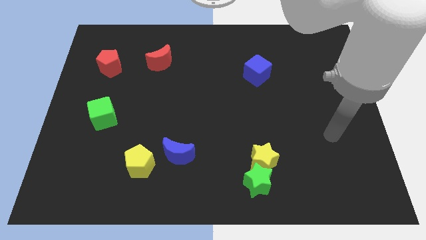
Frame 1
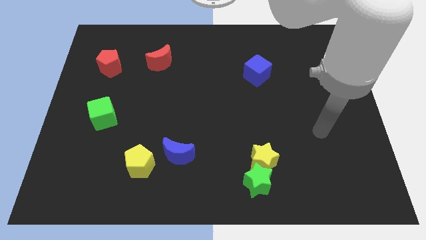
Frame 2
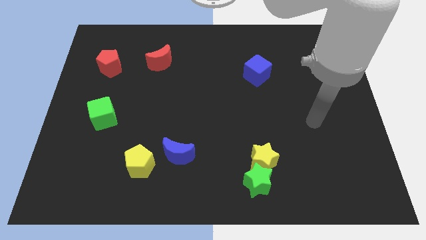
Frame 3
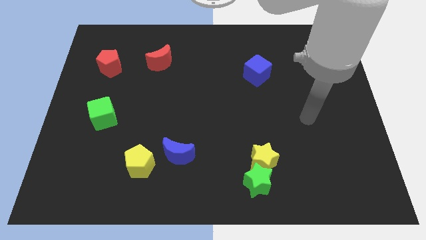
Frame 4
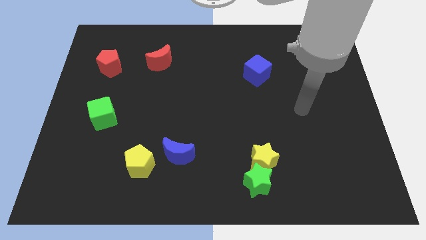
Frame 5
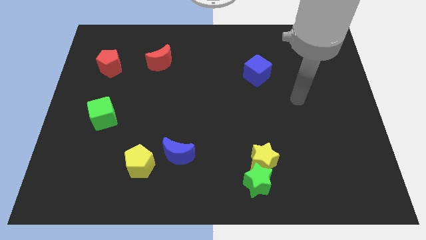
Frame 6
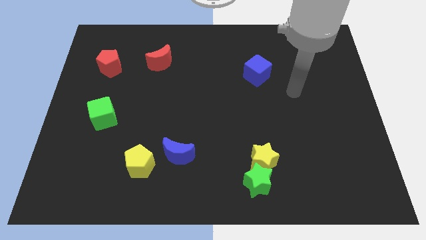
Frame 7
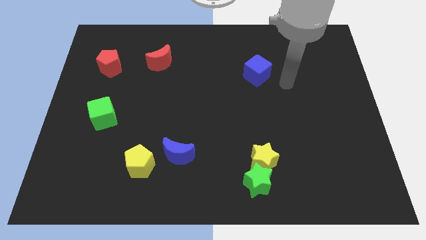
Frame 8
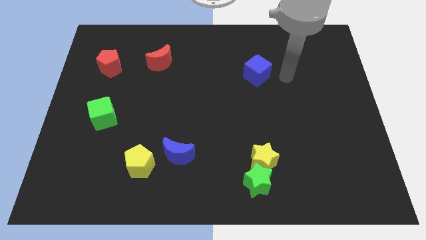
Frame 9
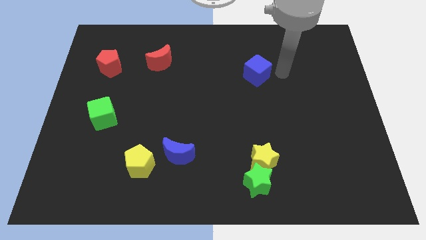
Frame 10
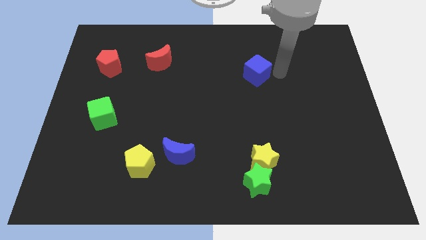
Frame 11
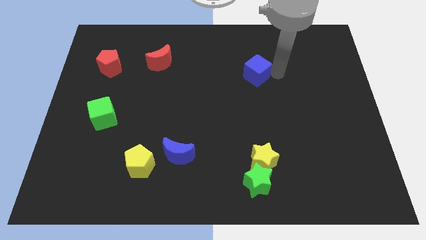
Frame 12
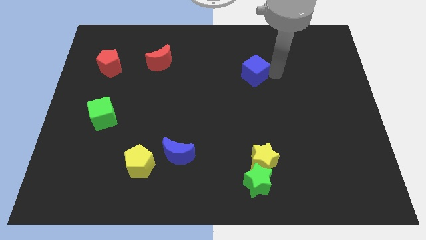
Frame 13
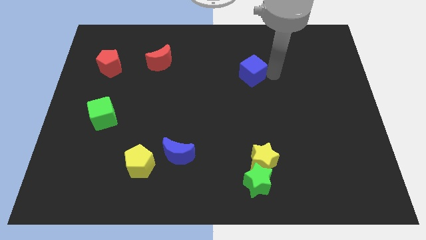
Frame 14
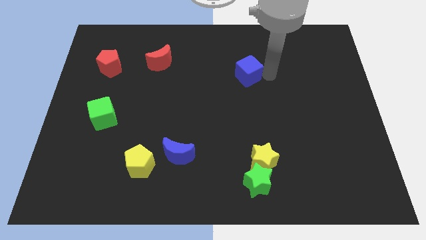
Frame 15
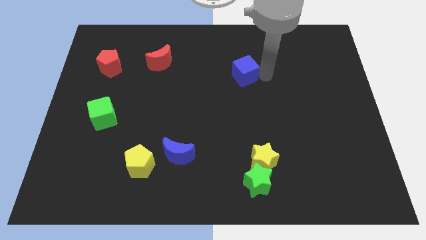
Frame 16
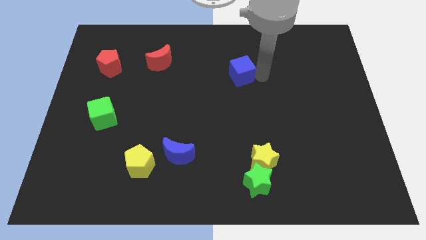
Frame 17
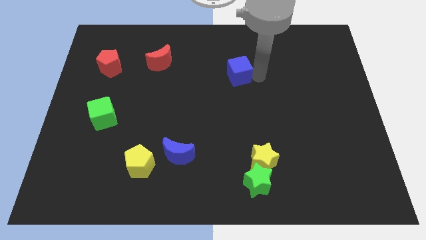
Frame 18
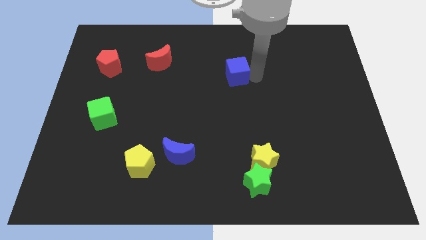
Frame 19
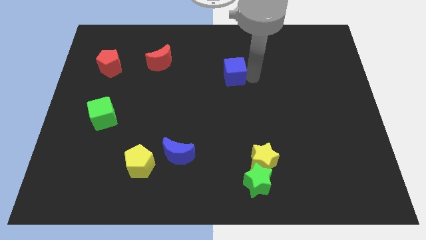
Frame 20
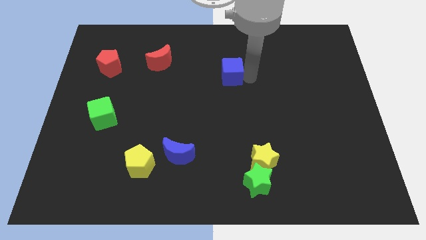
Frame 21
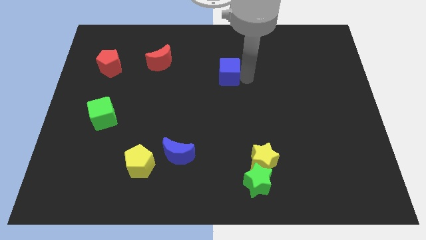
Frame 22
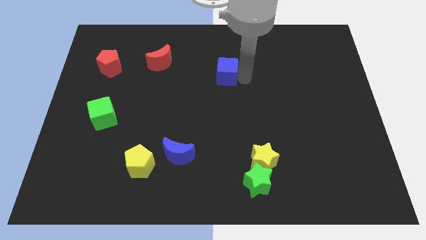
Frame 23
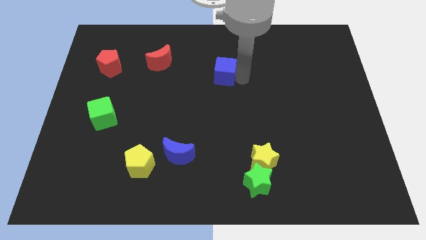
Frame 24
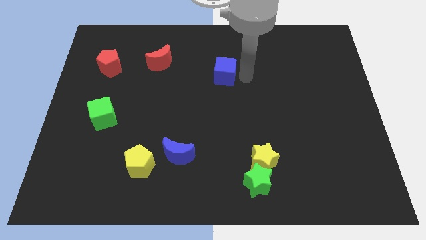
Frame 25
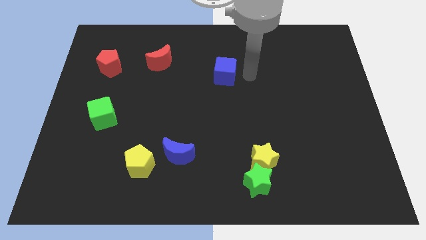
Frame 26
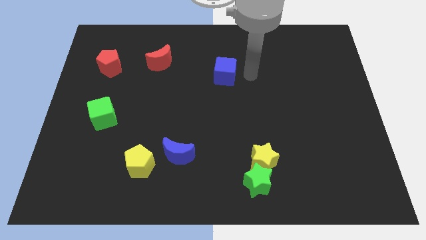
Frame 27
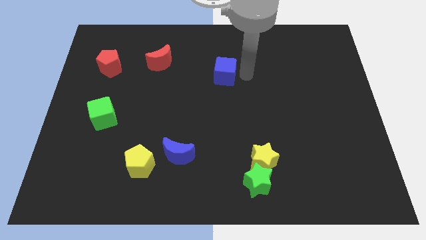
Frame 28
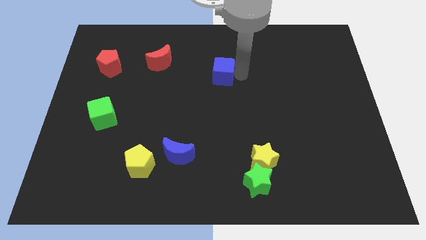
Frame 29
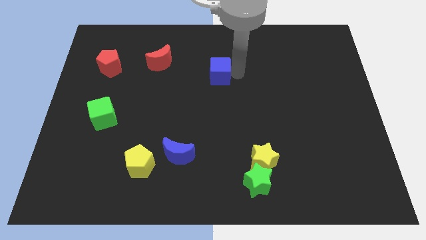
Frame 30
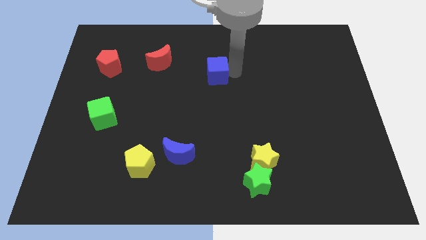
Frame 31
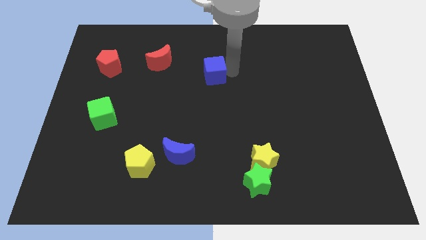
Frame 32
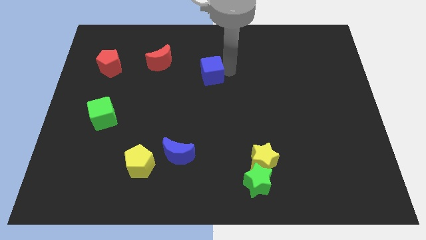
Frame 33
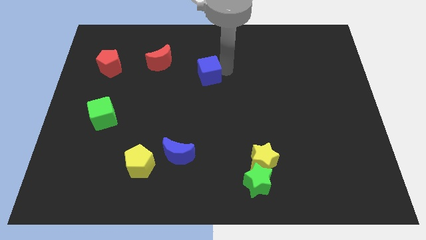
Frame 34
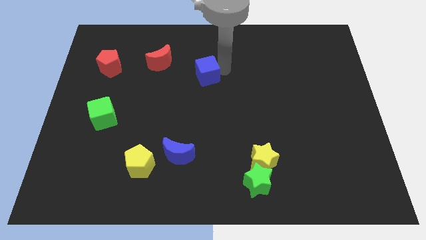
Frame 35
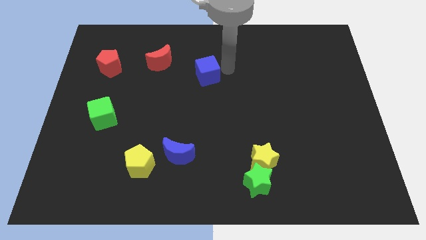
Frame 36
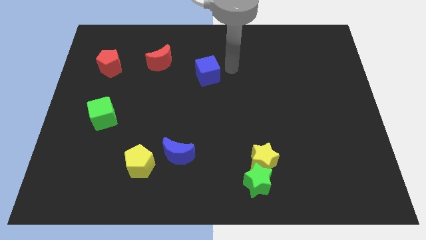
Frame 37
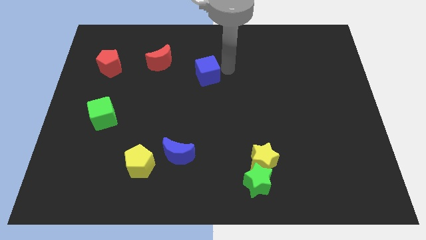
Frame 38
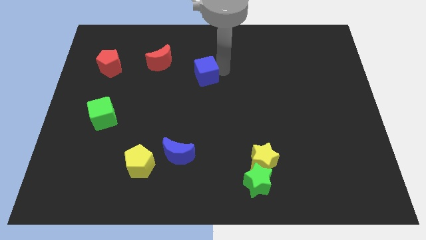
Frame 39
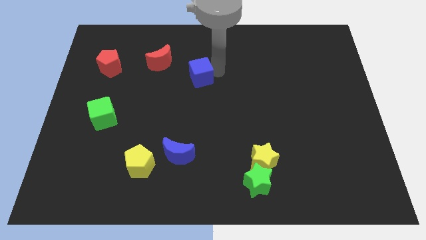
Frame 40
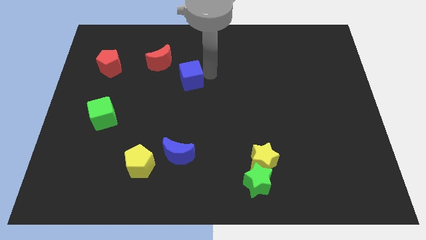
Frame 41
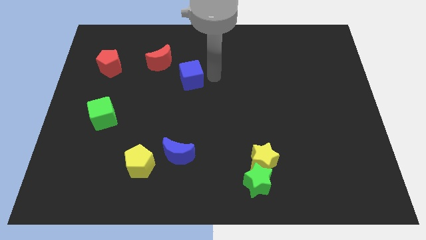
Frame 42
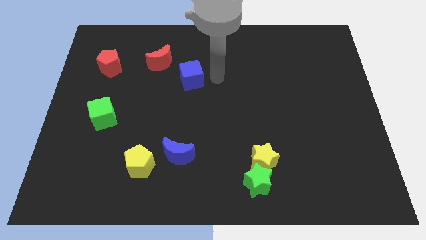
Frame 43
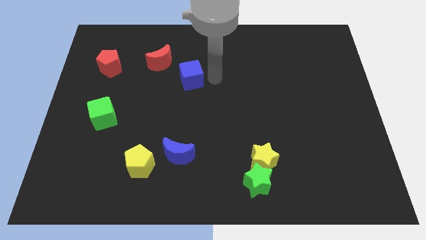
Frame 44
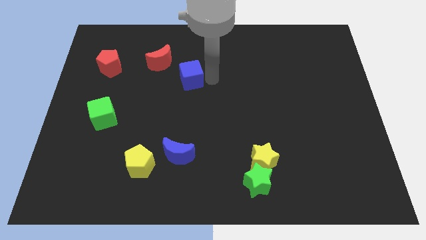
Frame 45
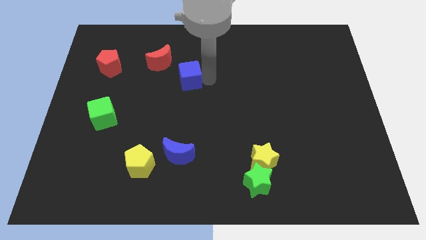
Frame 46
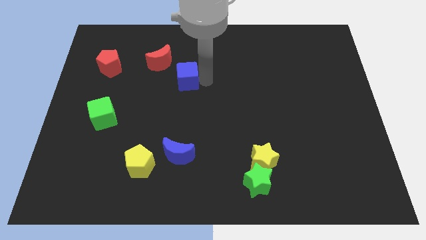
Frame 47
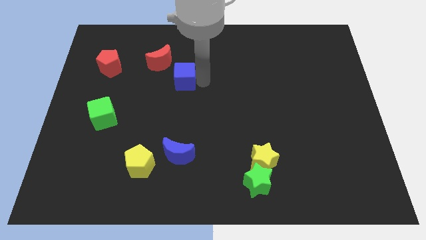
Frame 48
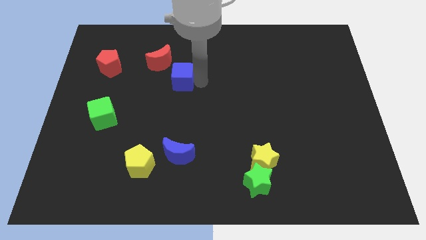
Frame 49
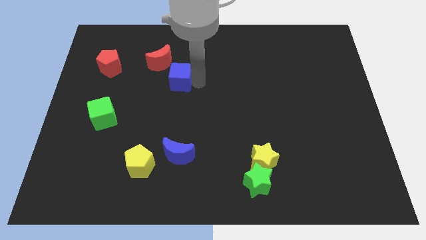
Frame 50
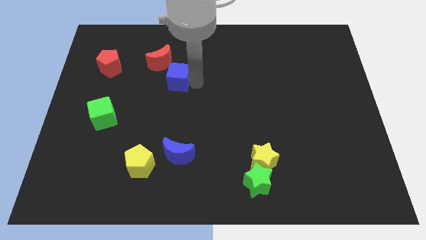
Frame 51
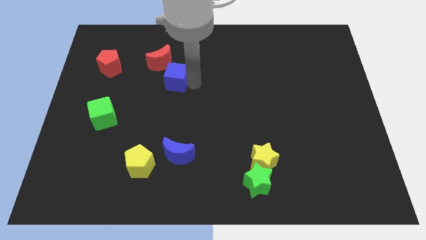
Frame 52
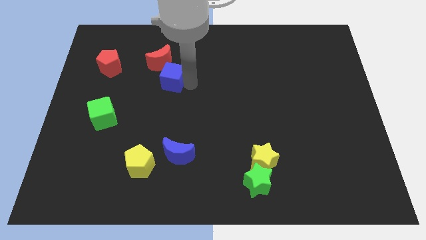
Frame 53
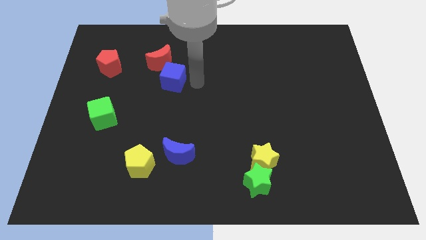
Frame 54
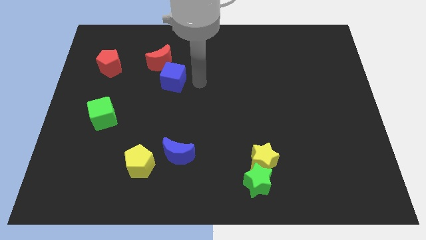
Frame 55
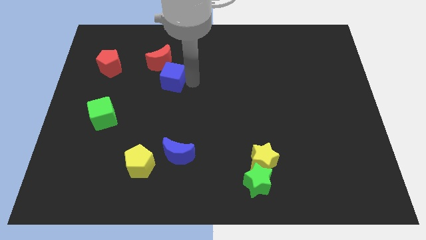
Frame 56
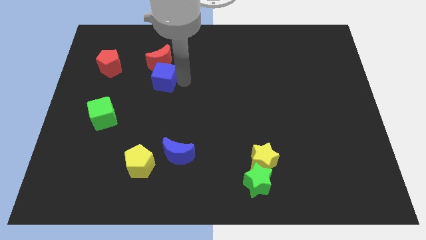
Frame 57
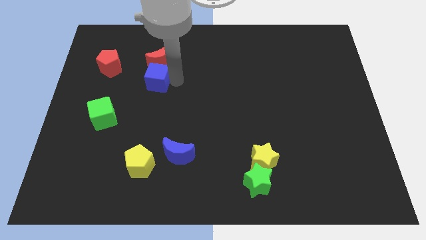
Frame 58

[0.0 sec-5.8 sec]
slide the blue cube diagonally down and to the left of the red moon
